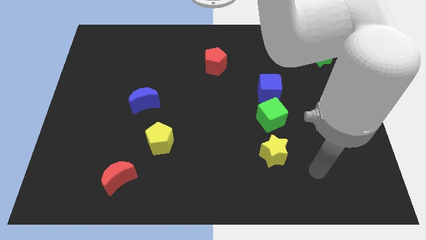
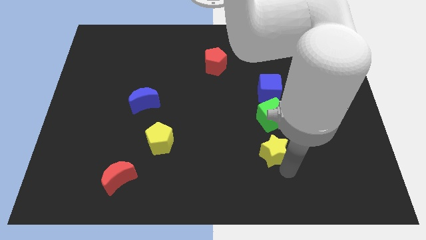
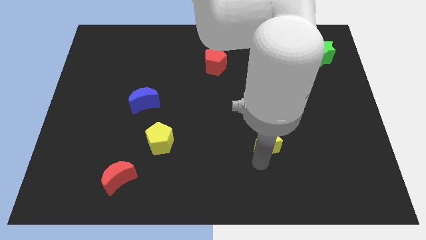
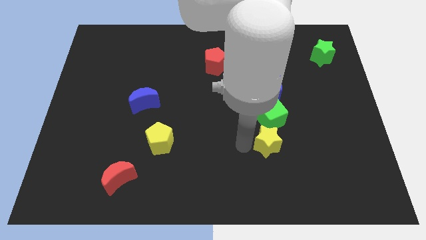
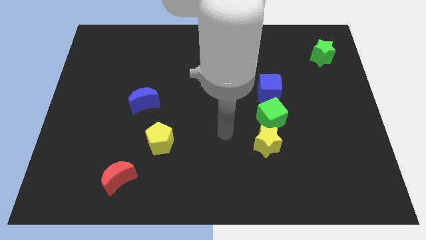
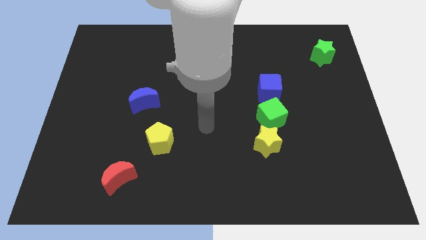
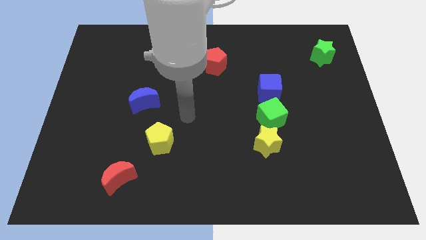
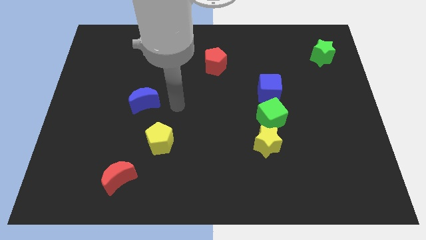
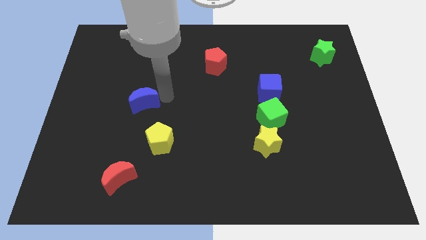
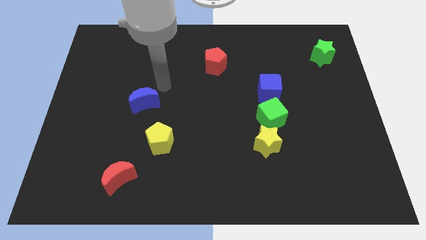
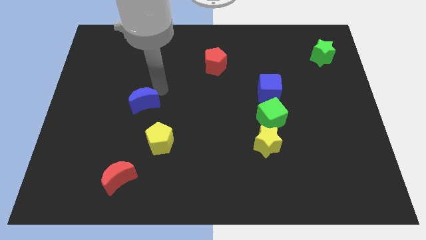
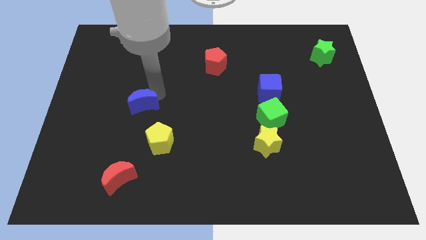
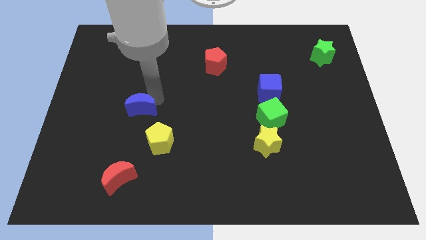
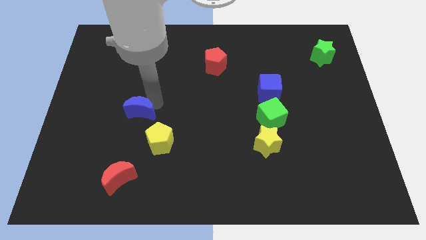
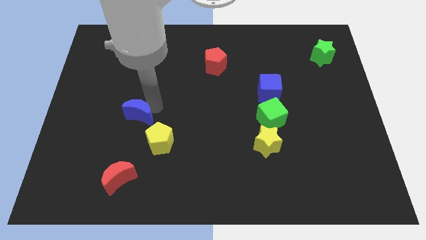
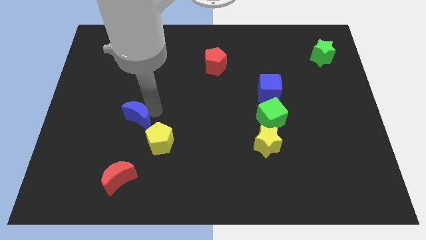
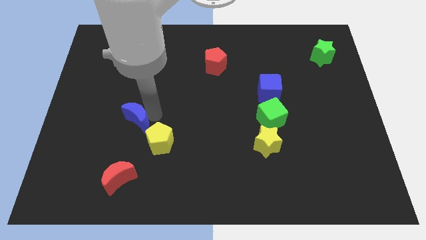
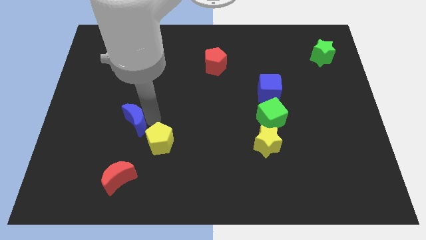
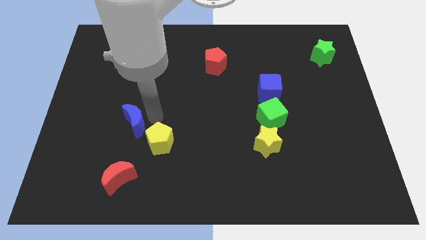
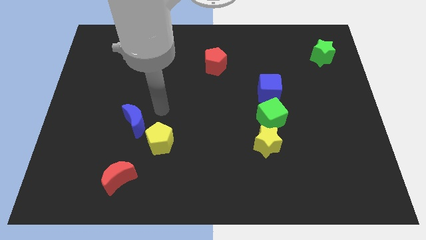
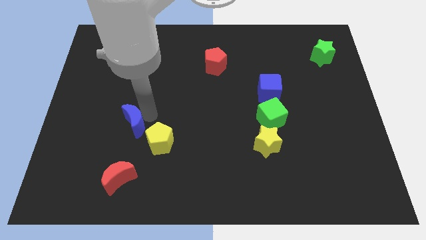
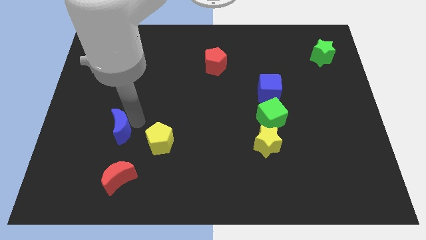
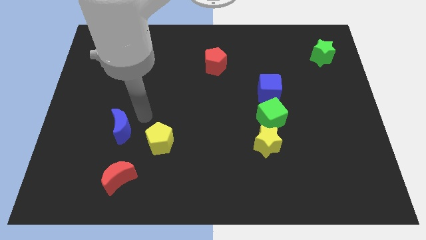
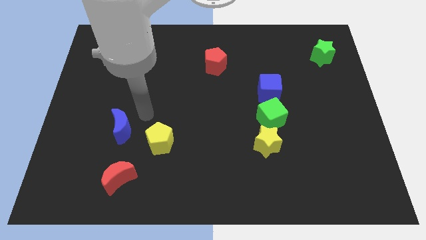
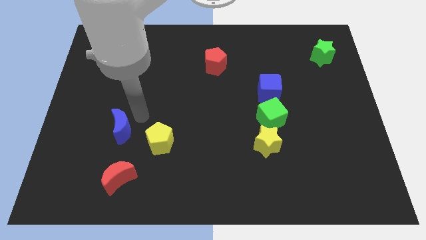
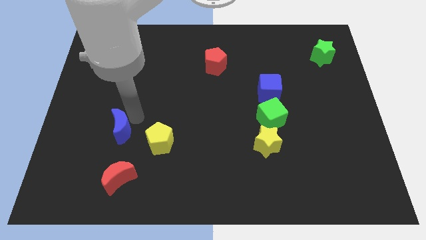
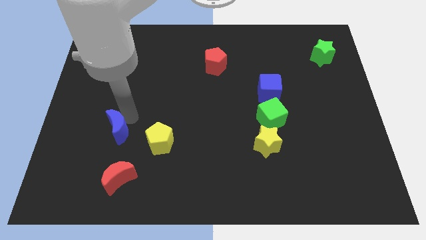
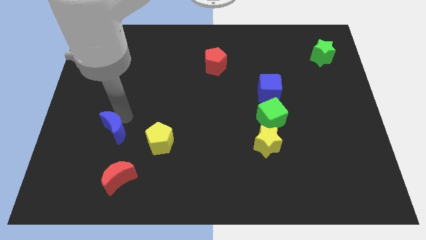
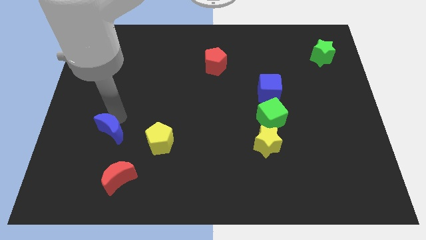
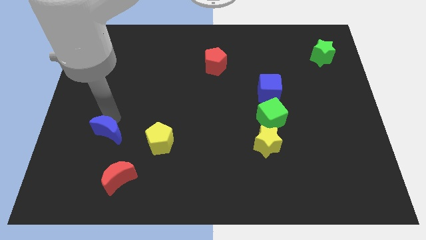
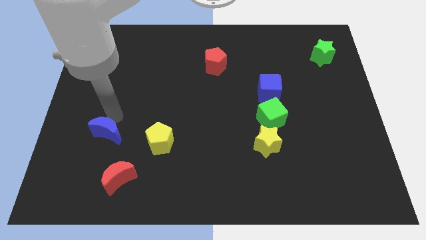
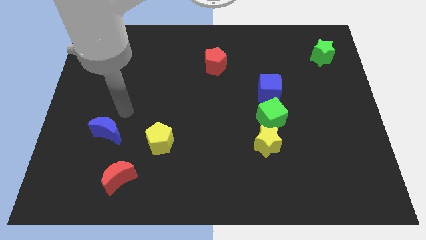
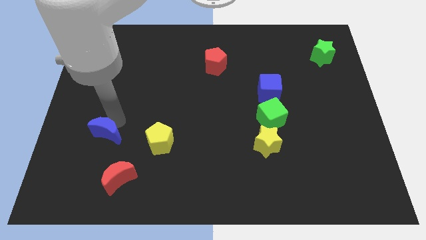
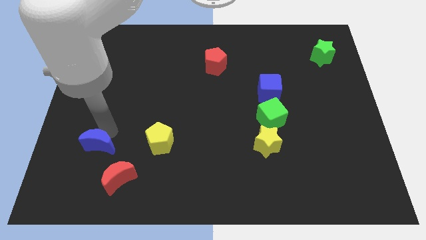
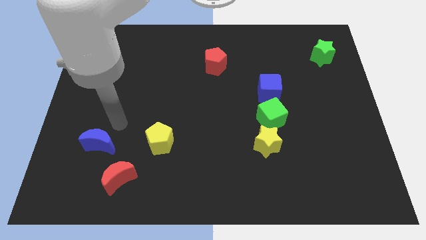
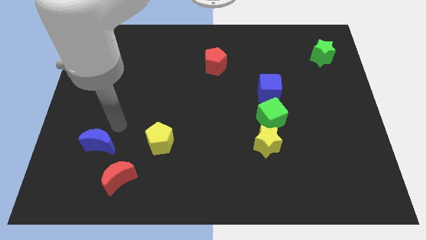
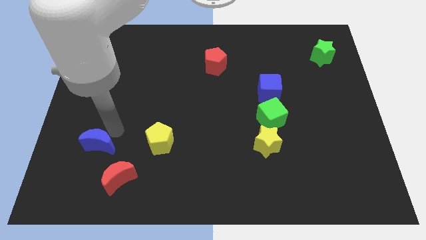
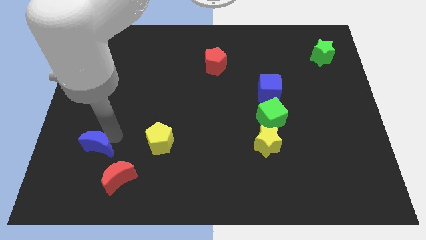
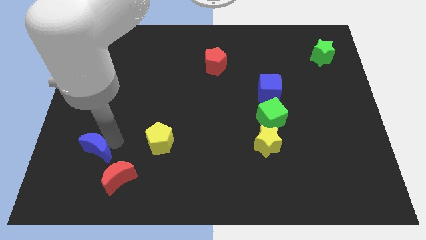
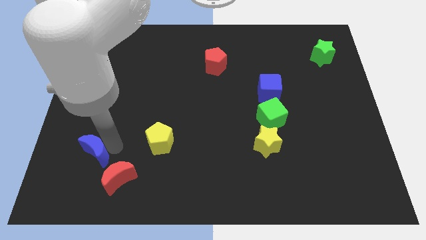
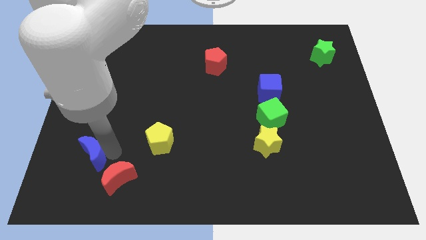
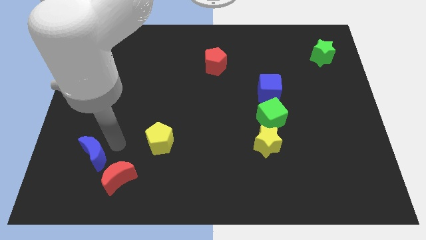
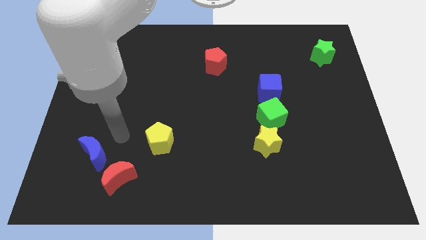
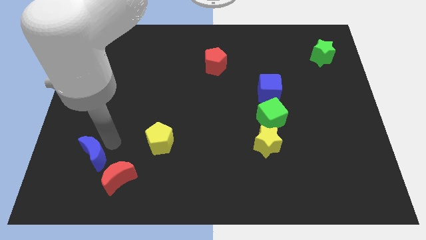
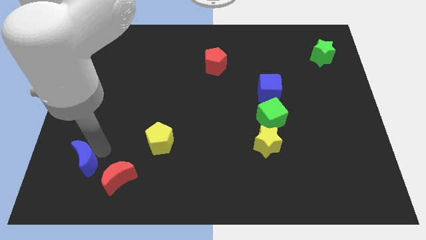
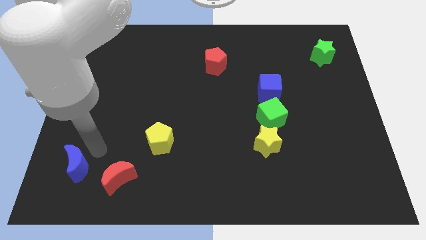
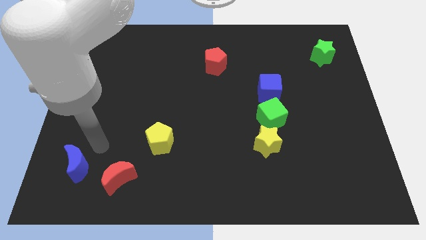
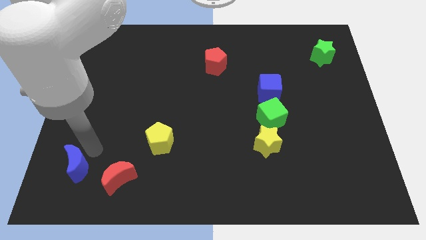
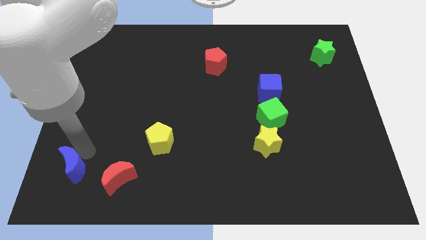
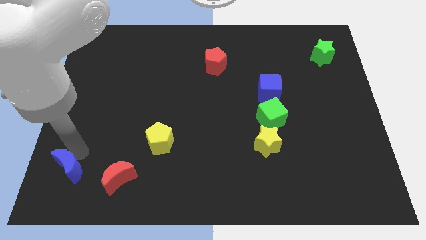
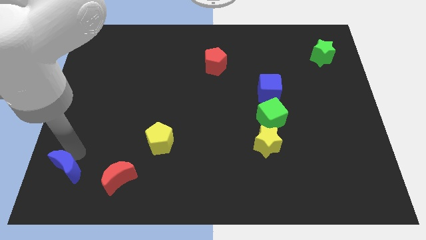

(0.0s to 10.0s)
slide the blue moon to the bottom left

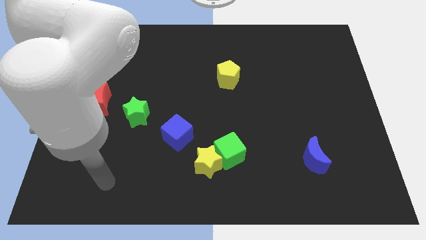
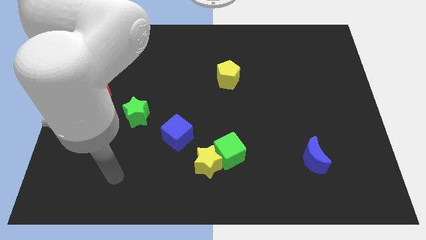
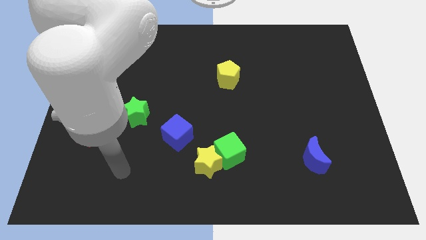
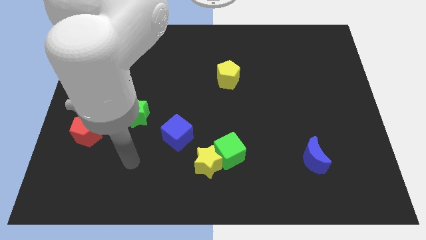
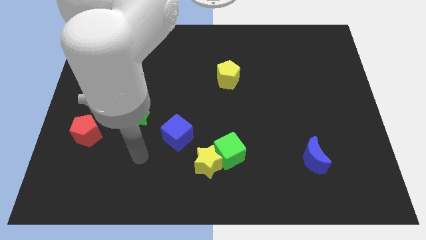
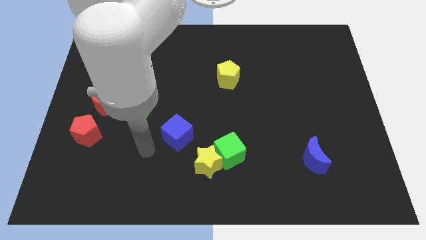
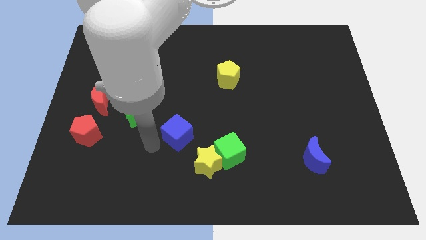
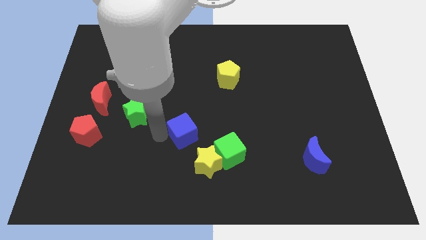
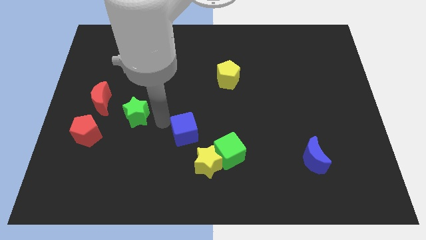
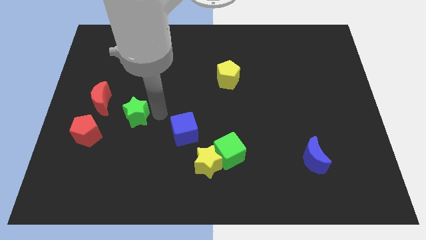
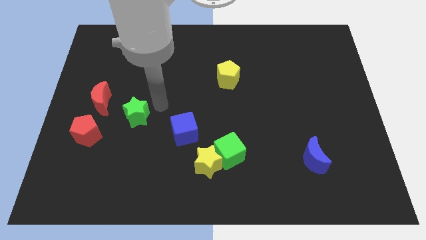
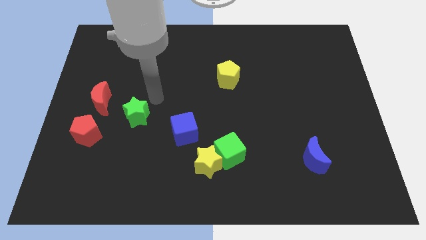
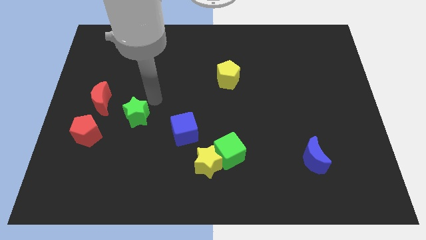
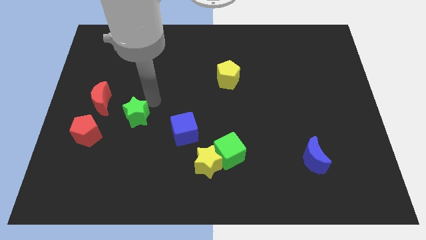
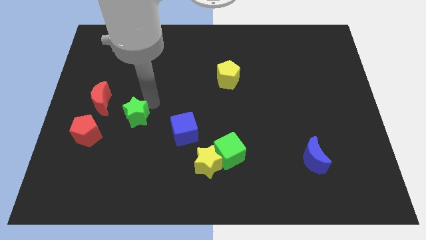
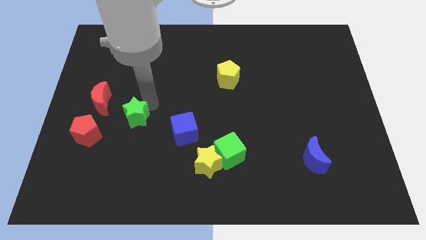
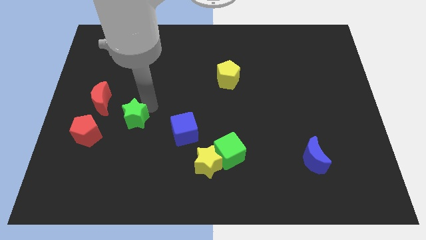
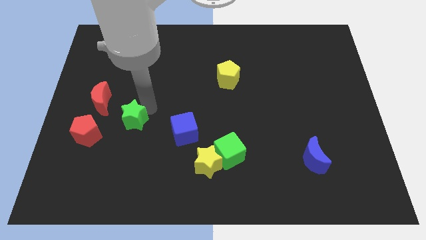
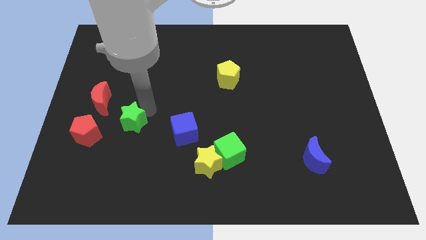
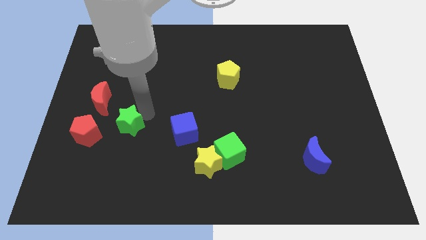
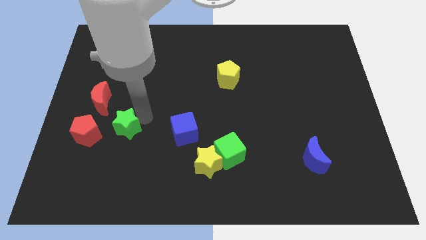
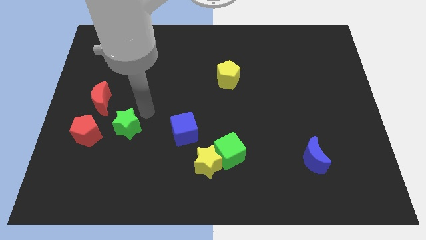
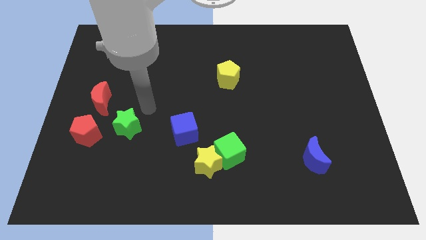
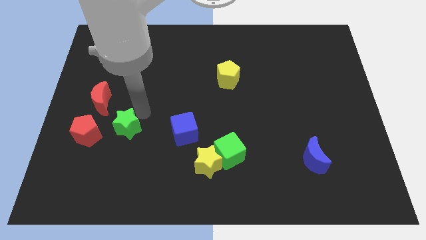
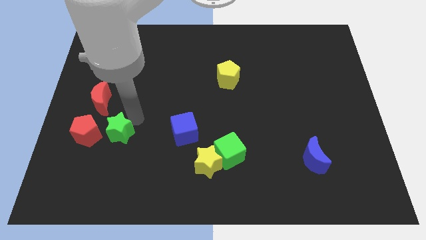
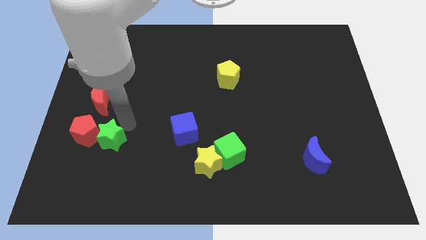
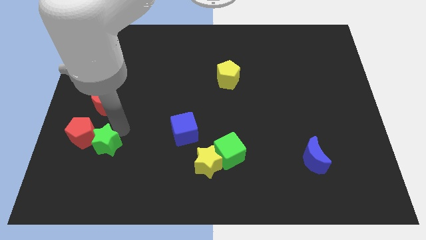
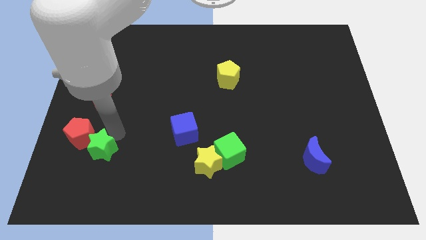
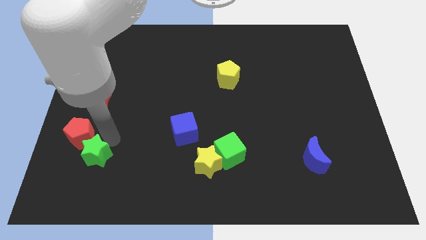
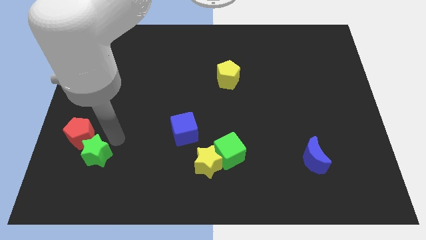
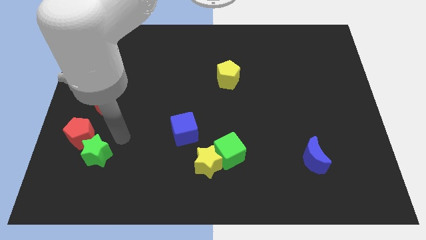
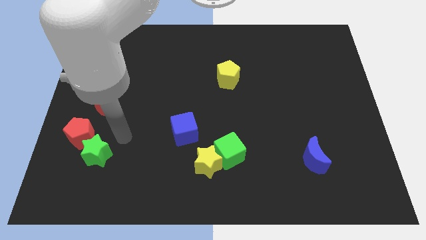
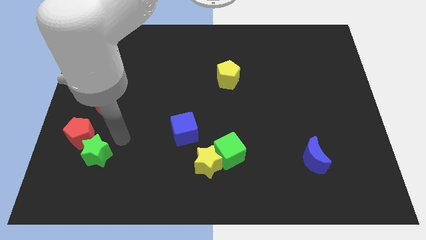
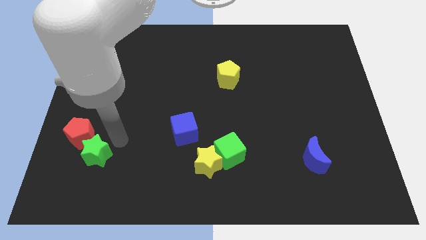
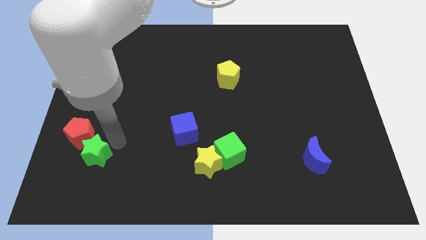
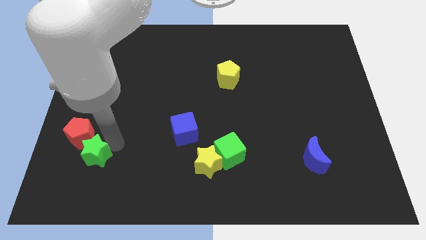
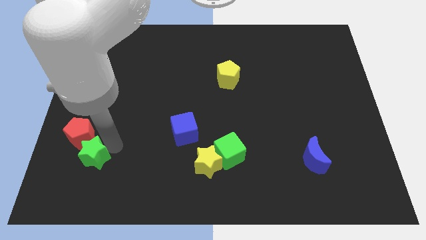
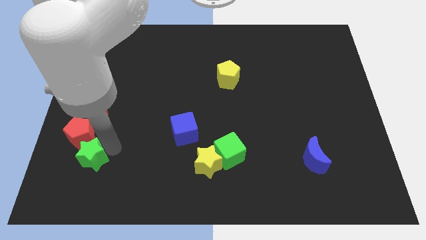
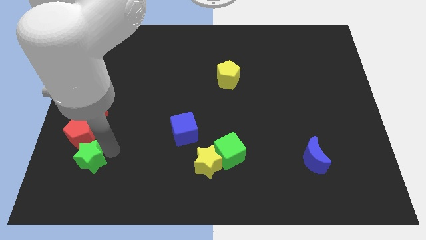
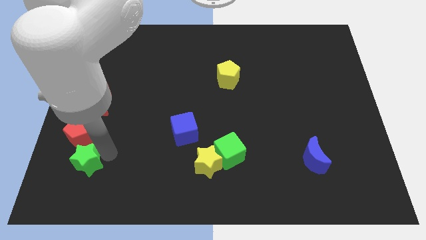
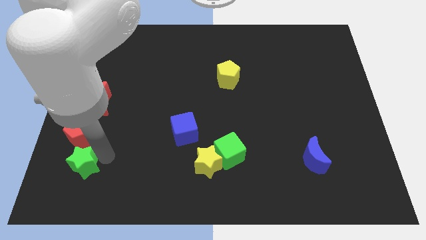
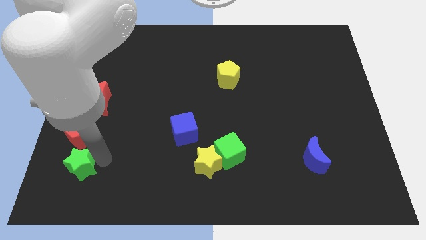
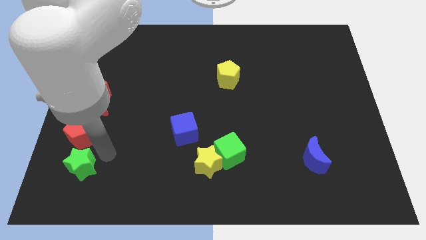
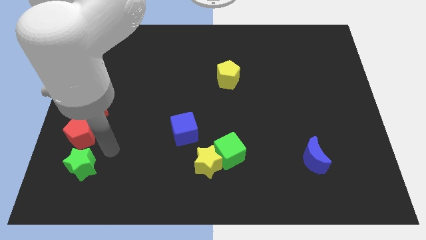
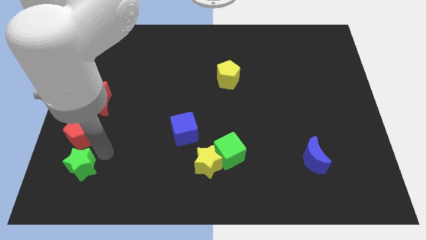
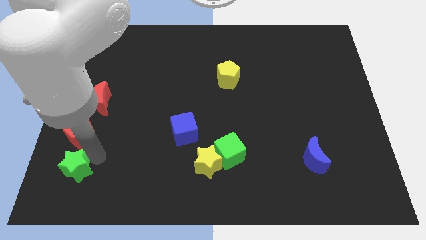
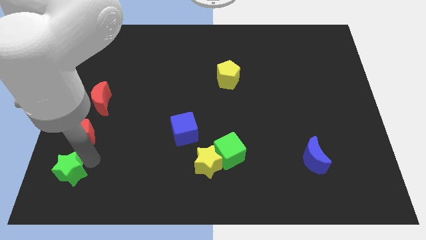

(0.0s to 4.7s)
push the green star to the lower left corner
